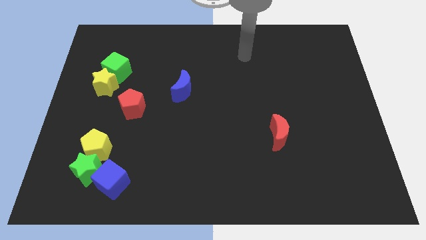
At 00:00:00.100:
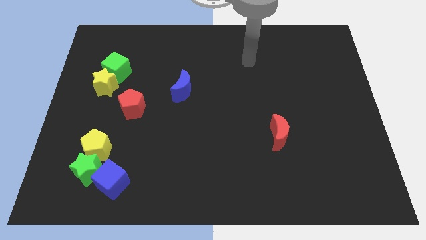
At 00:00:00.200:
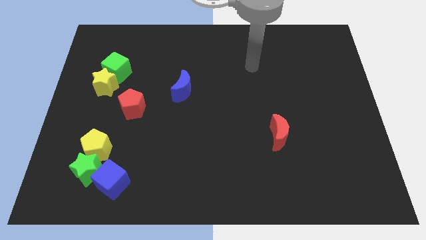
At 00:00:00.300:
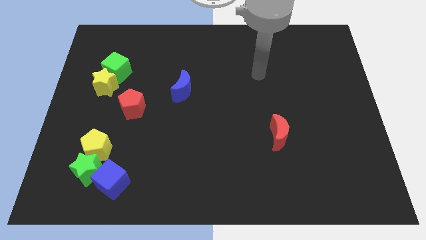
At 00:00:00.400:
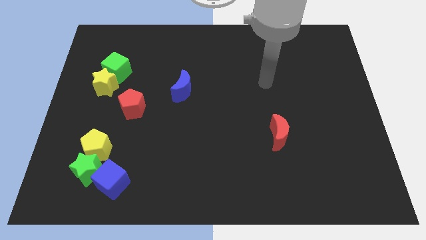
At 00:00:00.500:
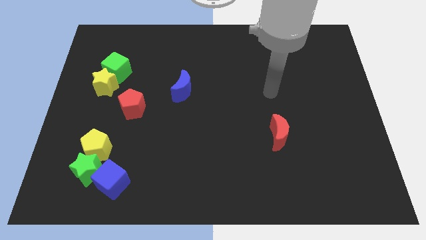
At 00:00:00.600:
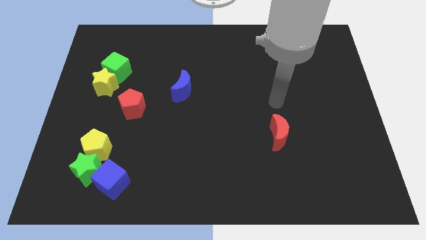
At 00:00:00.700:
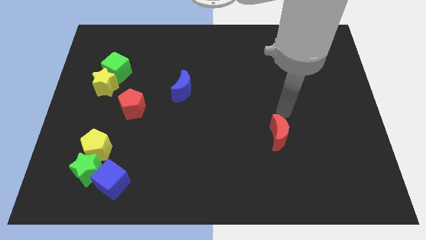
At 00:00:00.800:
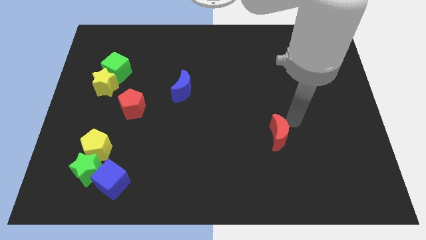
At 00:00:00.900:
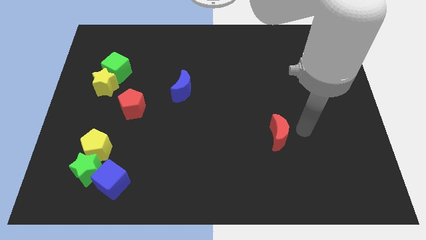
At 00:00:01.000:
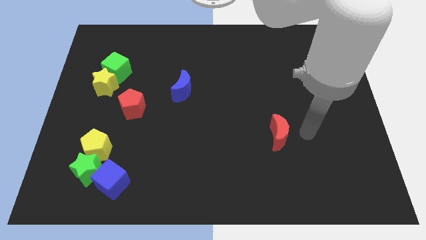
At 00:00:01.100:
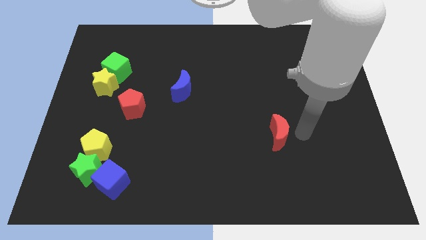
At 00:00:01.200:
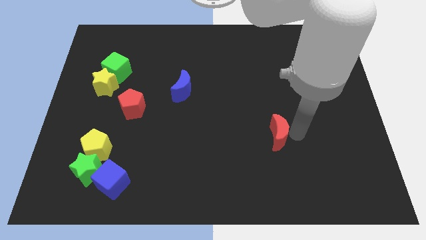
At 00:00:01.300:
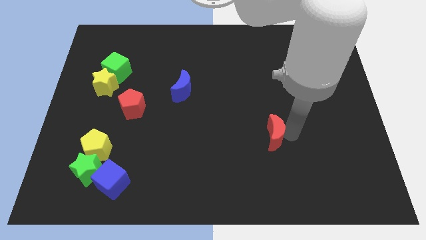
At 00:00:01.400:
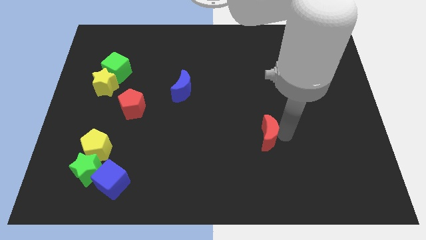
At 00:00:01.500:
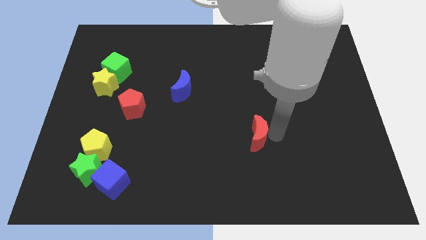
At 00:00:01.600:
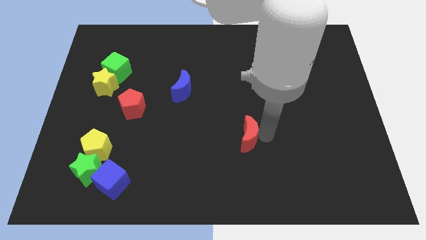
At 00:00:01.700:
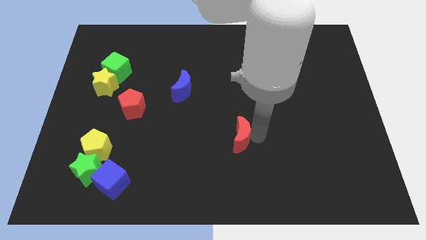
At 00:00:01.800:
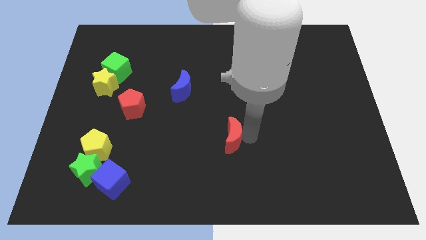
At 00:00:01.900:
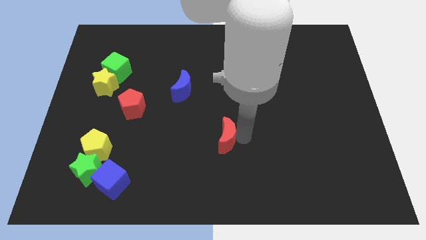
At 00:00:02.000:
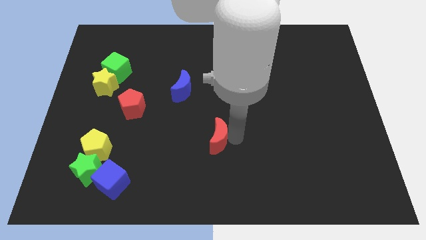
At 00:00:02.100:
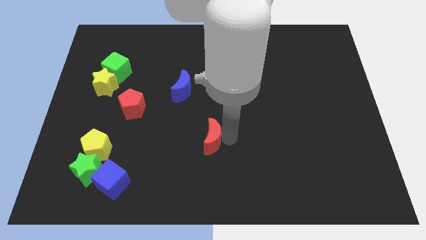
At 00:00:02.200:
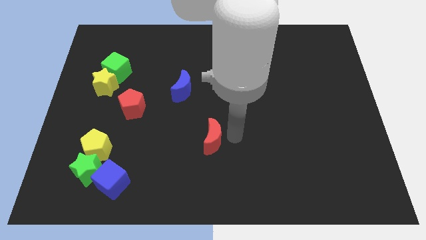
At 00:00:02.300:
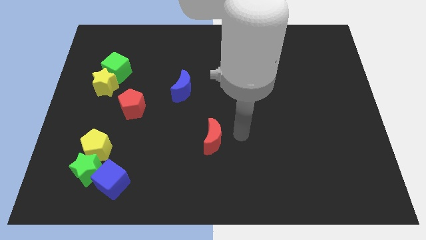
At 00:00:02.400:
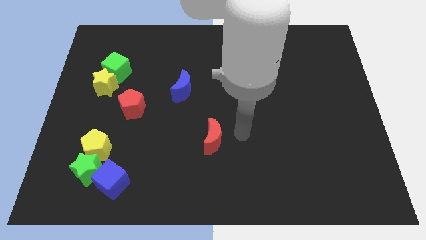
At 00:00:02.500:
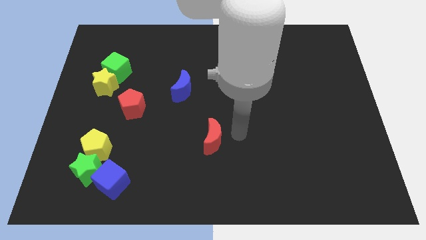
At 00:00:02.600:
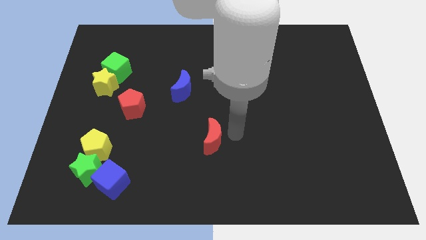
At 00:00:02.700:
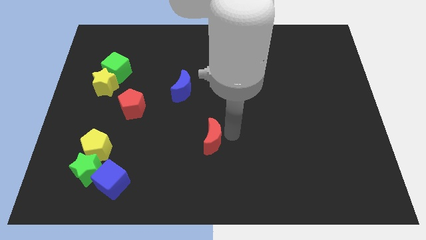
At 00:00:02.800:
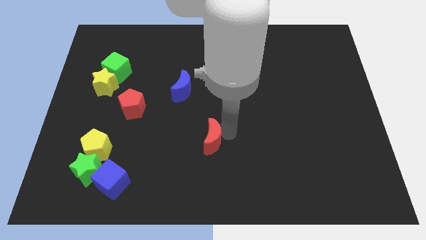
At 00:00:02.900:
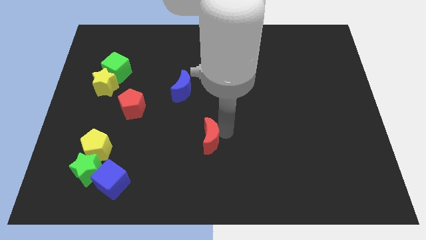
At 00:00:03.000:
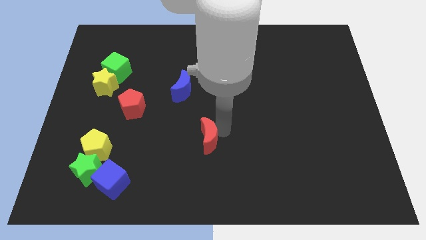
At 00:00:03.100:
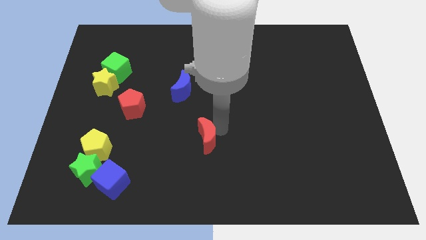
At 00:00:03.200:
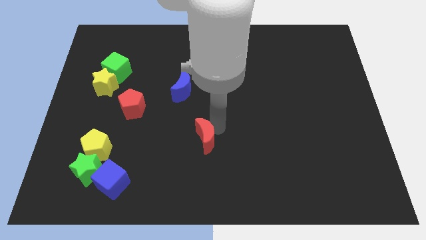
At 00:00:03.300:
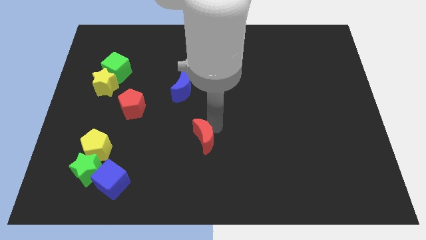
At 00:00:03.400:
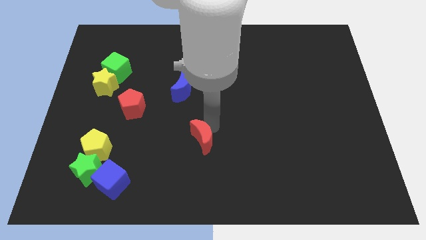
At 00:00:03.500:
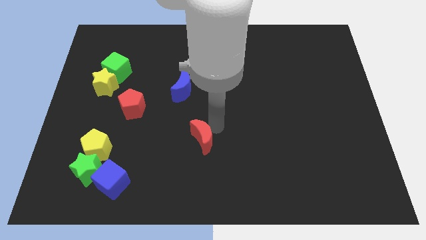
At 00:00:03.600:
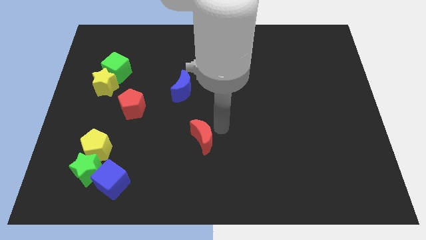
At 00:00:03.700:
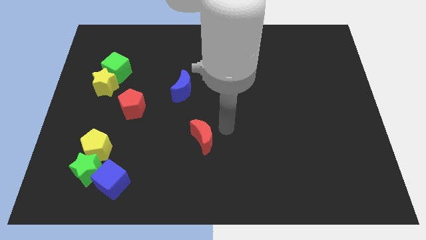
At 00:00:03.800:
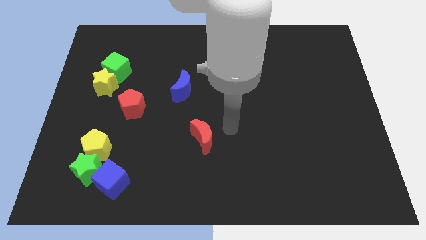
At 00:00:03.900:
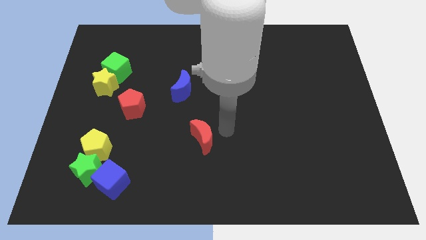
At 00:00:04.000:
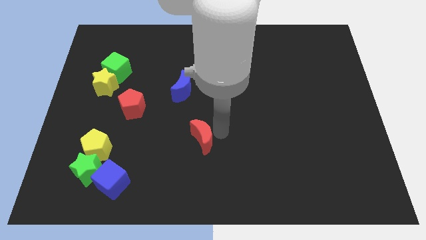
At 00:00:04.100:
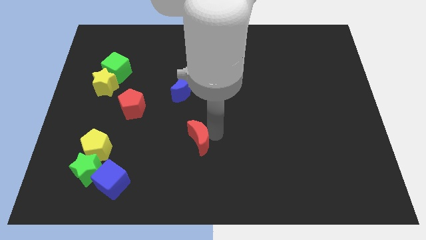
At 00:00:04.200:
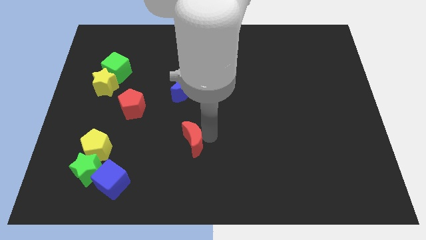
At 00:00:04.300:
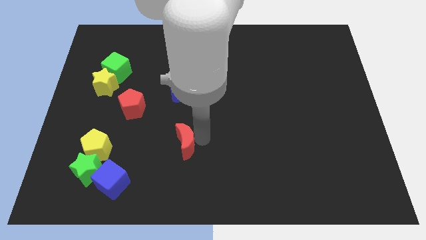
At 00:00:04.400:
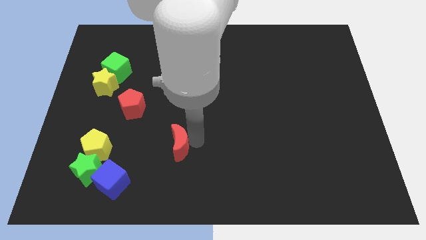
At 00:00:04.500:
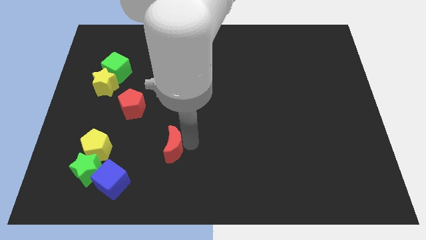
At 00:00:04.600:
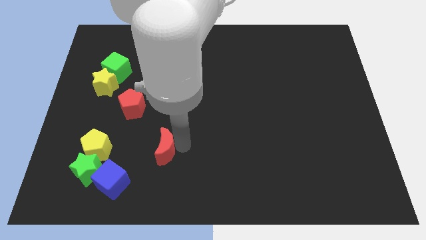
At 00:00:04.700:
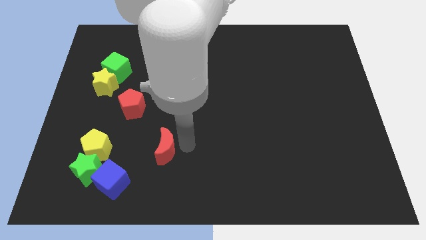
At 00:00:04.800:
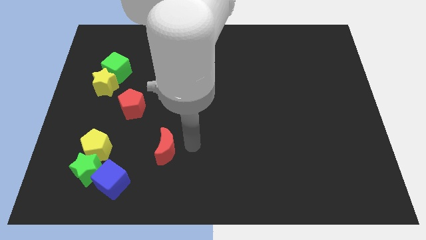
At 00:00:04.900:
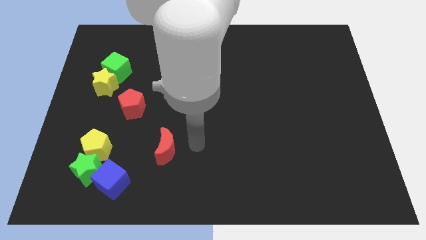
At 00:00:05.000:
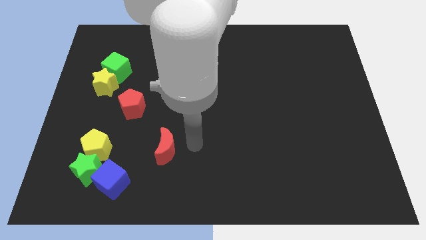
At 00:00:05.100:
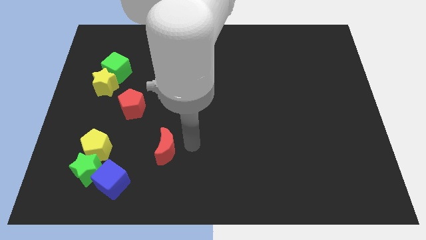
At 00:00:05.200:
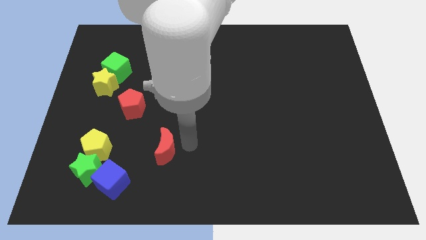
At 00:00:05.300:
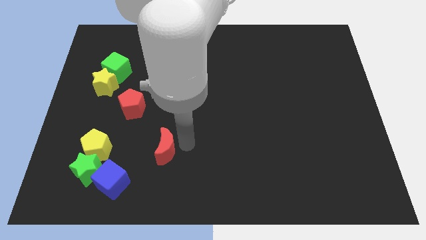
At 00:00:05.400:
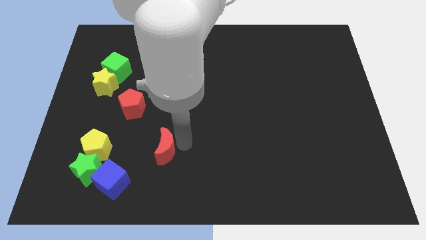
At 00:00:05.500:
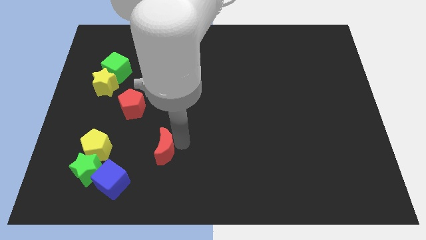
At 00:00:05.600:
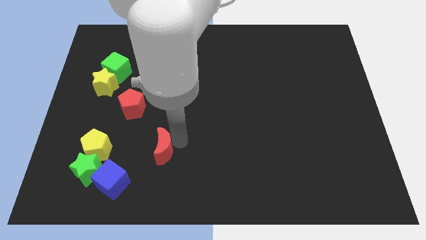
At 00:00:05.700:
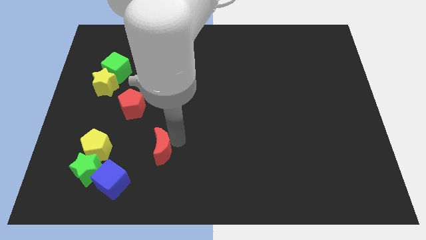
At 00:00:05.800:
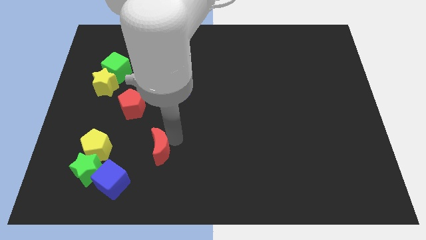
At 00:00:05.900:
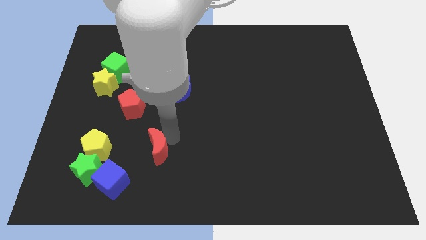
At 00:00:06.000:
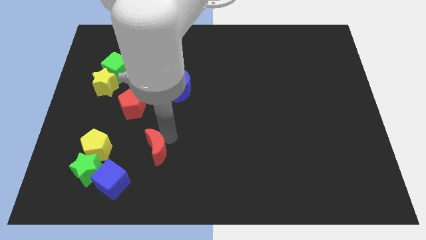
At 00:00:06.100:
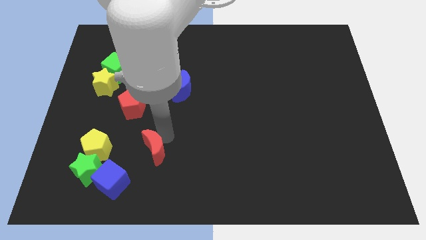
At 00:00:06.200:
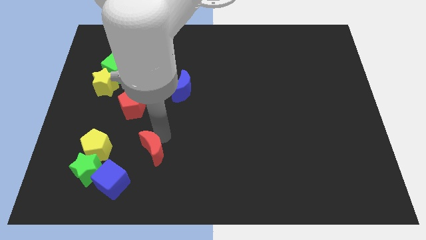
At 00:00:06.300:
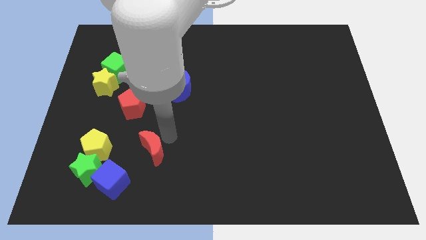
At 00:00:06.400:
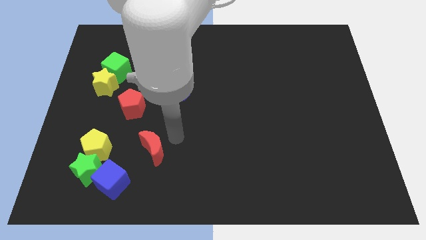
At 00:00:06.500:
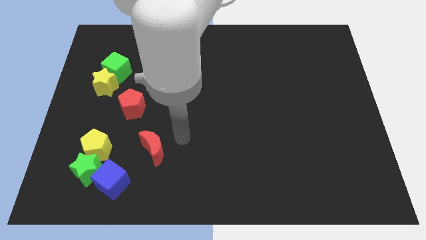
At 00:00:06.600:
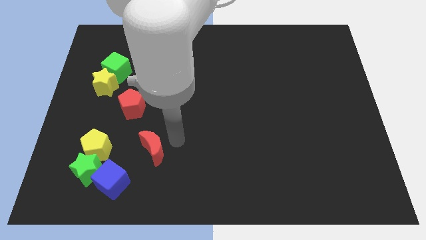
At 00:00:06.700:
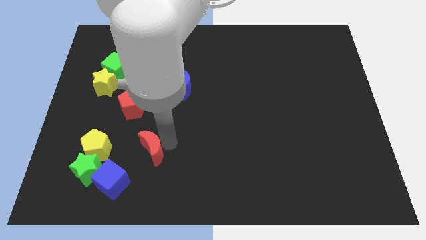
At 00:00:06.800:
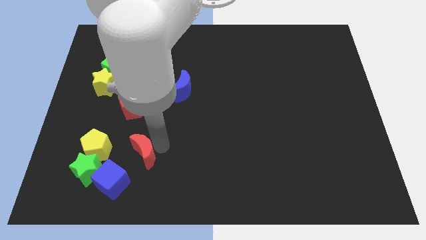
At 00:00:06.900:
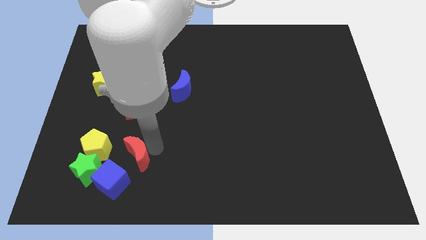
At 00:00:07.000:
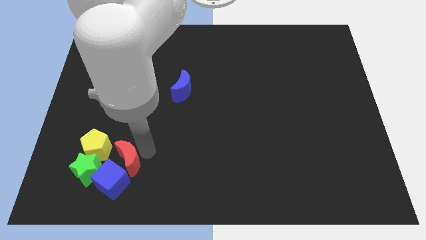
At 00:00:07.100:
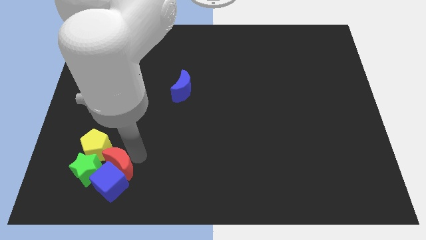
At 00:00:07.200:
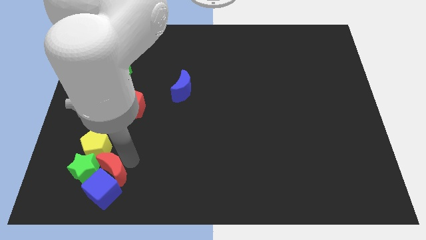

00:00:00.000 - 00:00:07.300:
slide the red moon next to the green star
